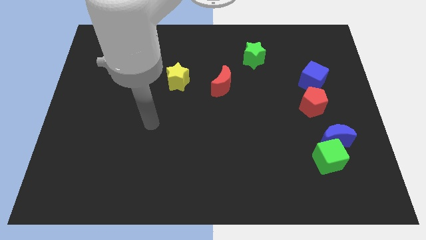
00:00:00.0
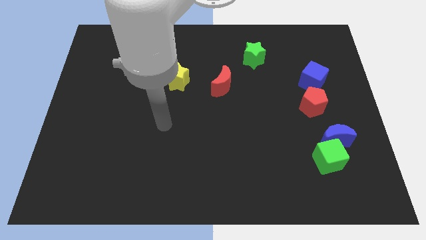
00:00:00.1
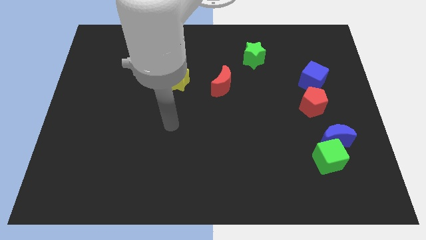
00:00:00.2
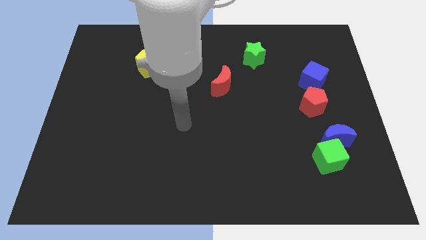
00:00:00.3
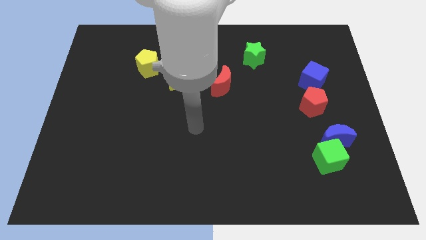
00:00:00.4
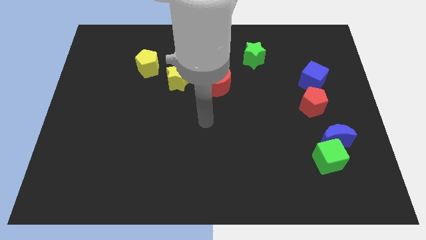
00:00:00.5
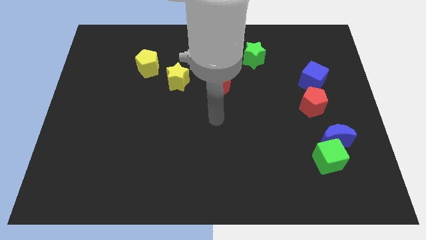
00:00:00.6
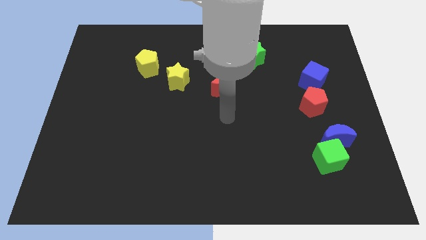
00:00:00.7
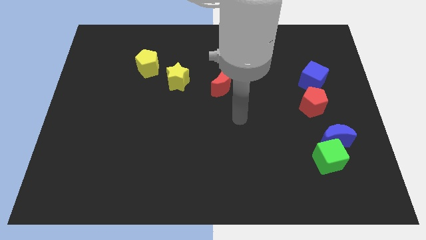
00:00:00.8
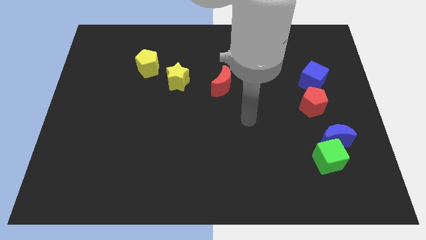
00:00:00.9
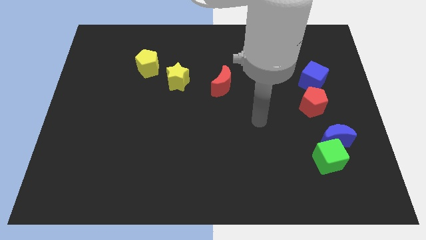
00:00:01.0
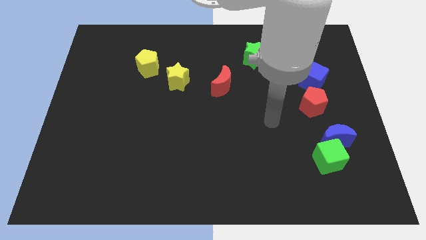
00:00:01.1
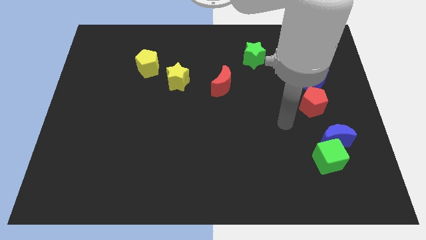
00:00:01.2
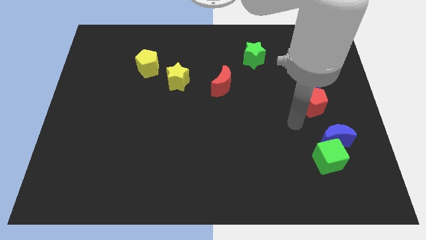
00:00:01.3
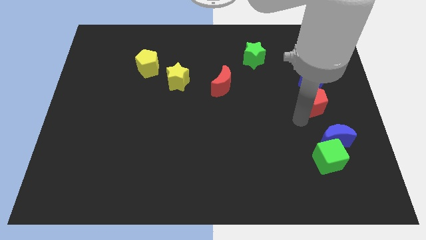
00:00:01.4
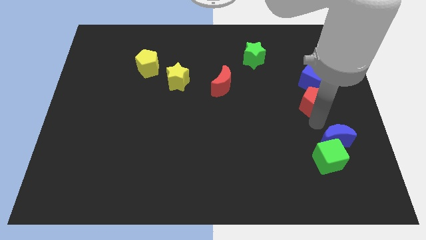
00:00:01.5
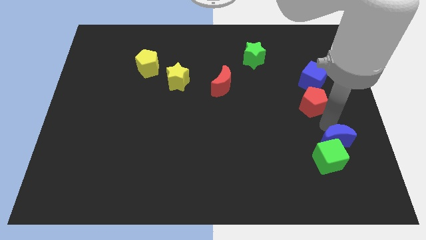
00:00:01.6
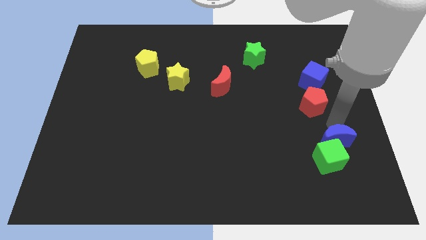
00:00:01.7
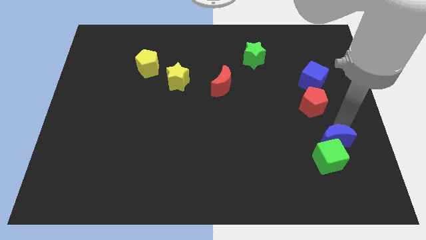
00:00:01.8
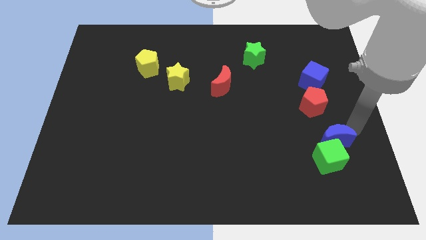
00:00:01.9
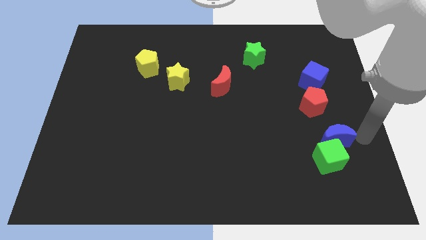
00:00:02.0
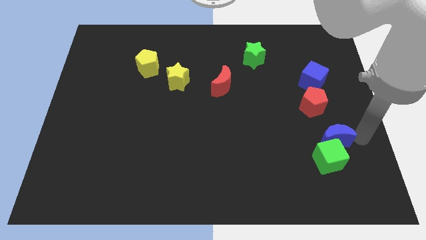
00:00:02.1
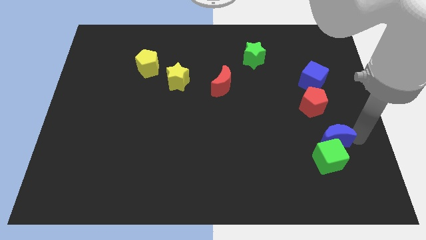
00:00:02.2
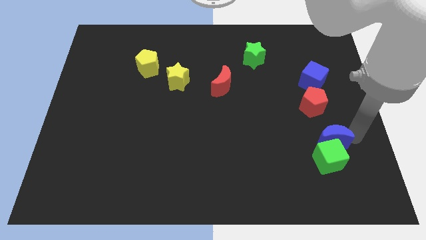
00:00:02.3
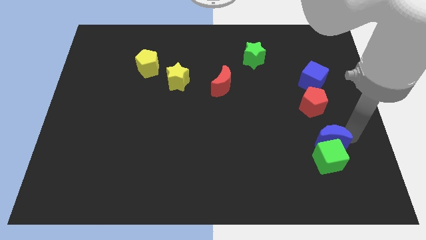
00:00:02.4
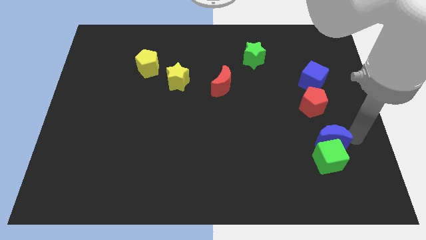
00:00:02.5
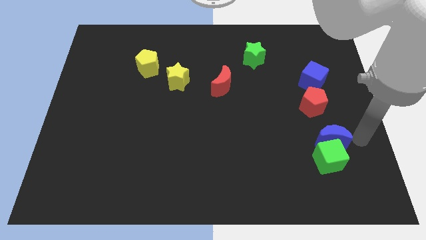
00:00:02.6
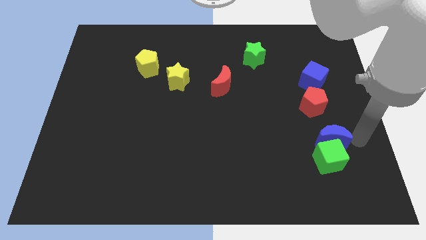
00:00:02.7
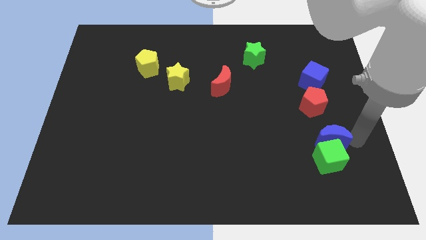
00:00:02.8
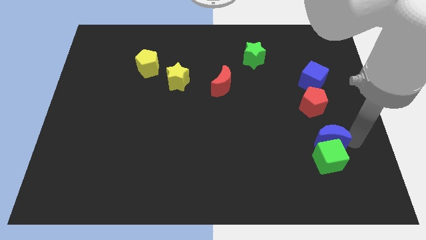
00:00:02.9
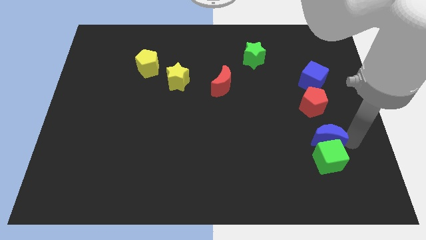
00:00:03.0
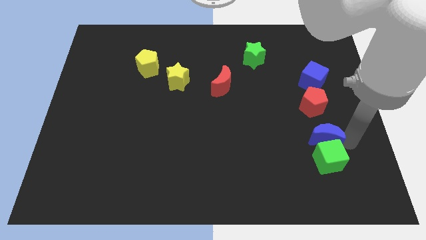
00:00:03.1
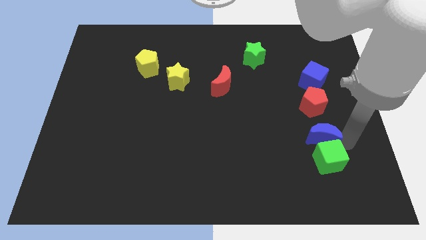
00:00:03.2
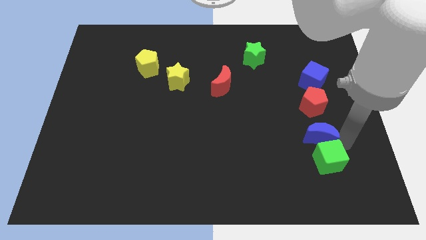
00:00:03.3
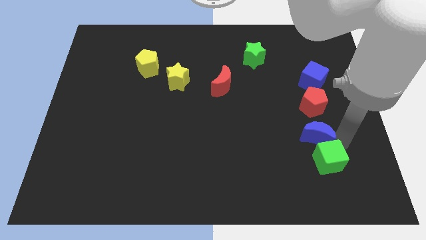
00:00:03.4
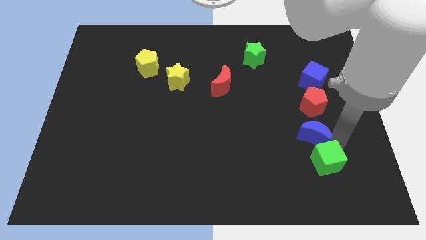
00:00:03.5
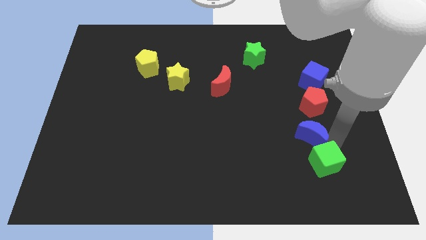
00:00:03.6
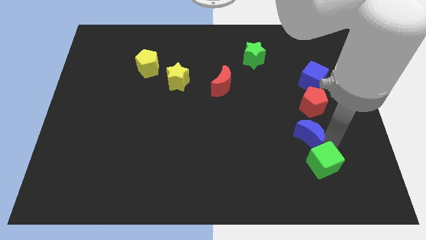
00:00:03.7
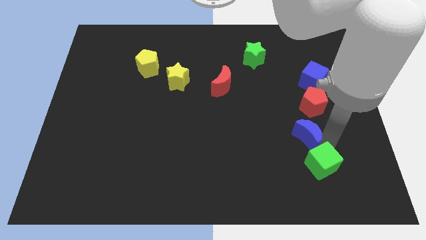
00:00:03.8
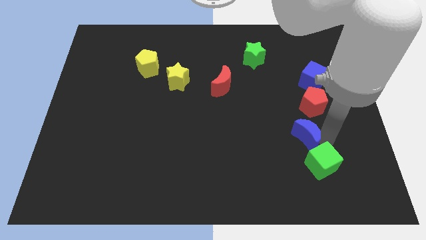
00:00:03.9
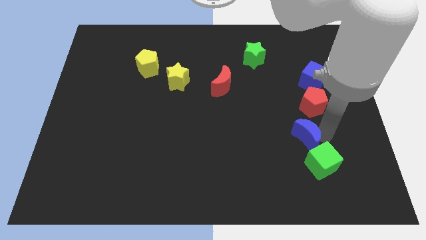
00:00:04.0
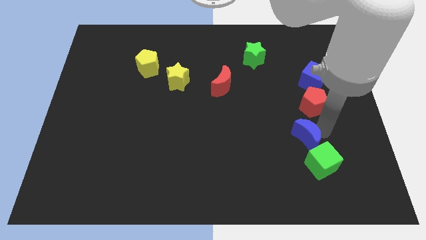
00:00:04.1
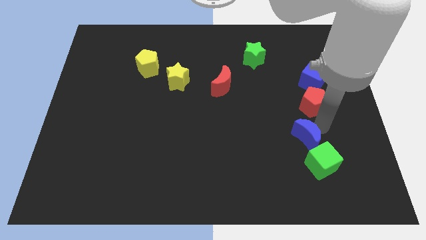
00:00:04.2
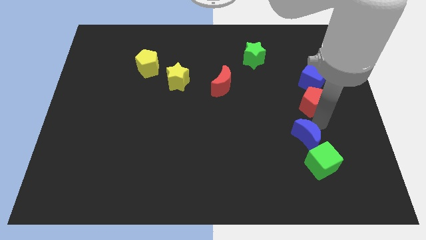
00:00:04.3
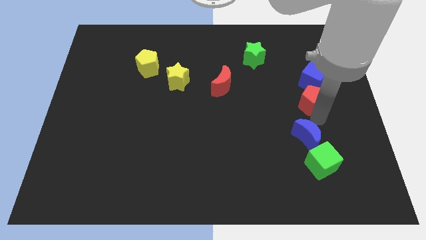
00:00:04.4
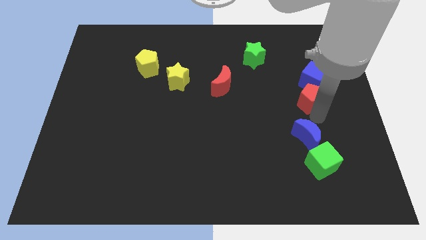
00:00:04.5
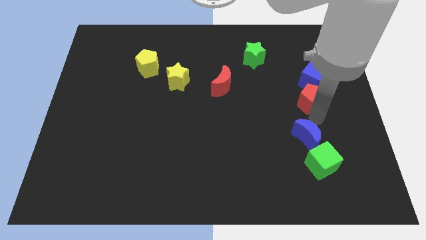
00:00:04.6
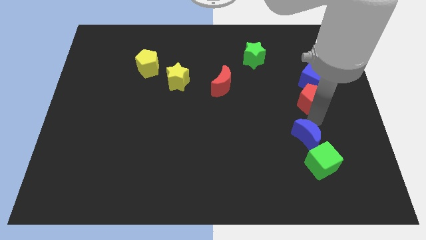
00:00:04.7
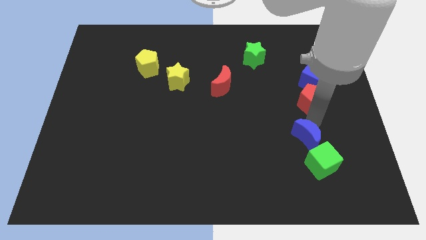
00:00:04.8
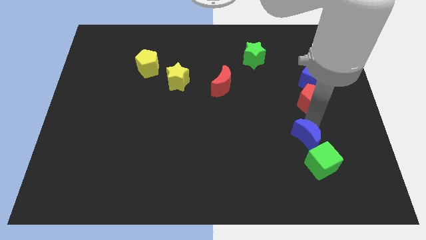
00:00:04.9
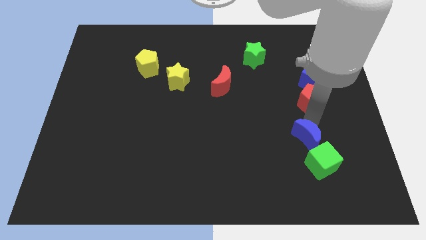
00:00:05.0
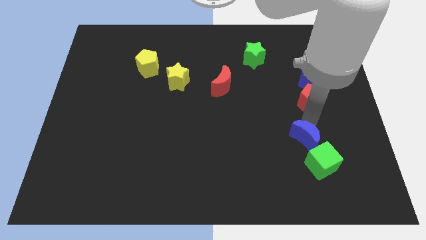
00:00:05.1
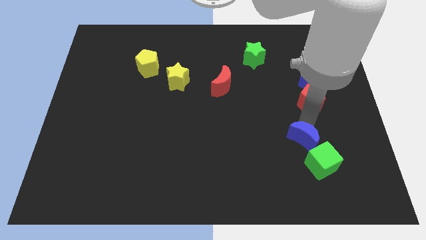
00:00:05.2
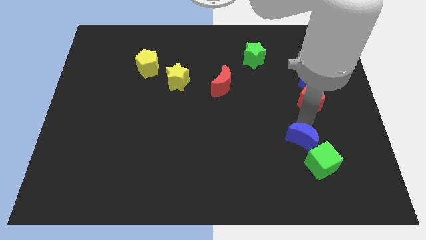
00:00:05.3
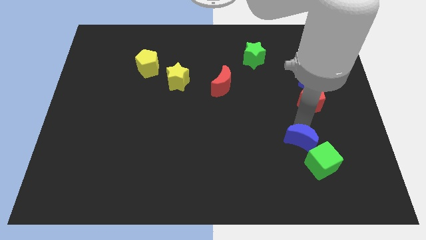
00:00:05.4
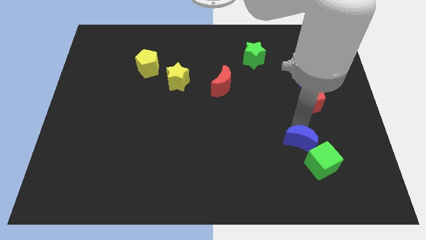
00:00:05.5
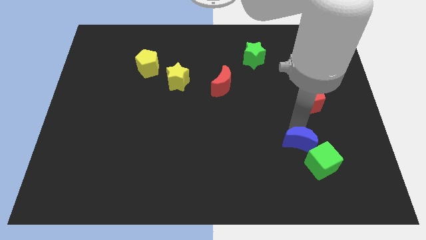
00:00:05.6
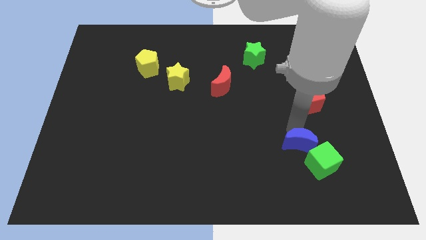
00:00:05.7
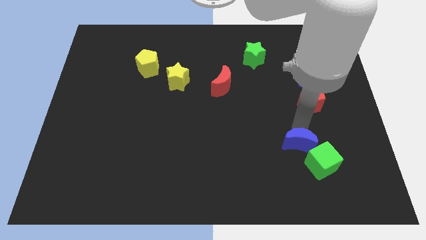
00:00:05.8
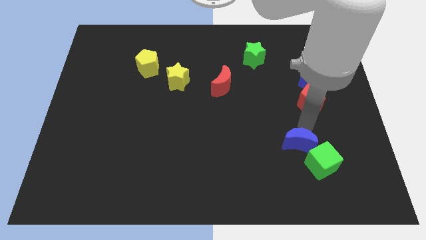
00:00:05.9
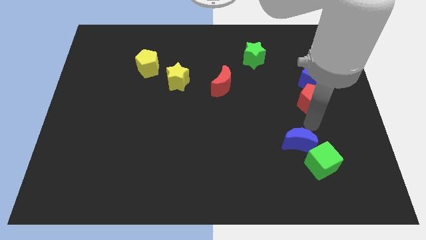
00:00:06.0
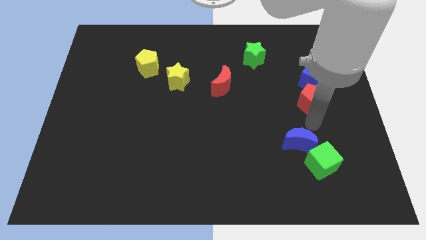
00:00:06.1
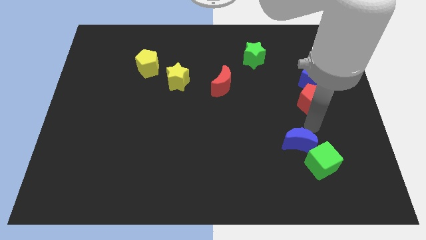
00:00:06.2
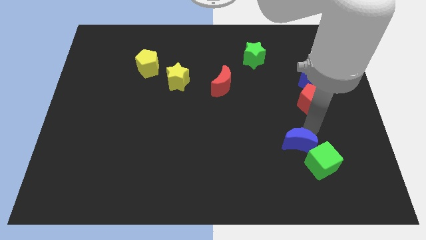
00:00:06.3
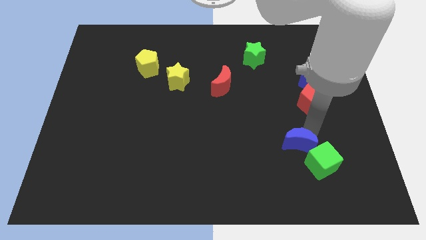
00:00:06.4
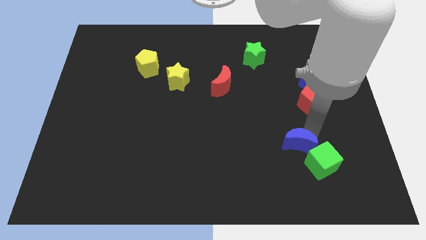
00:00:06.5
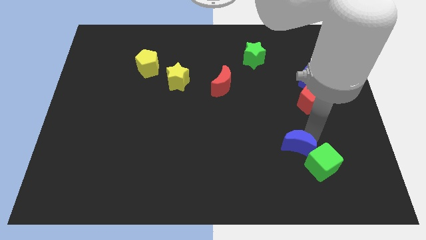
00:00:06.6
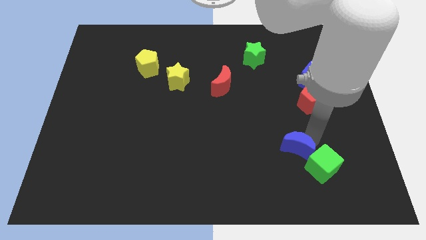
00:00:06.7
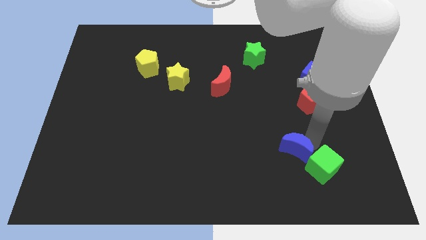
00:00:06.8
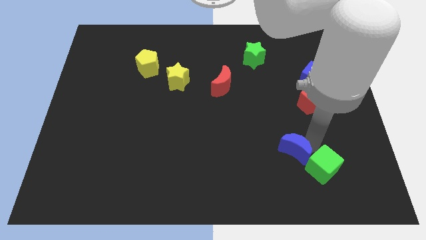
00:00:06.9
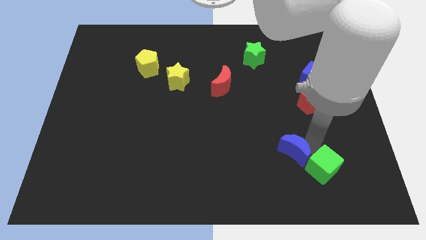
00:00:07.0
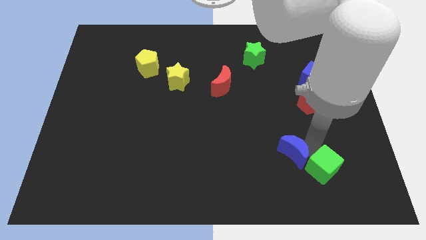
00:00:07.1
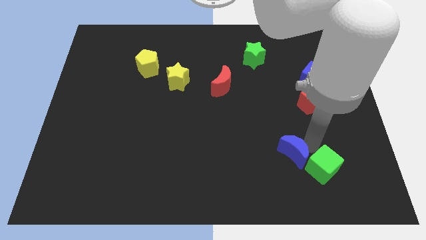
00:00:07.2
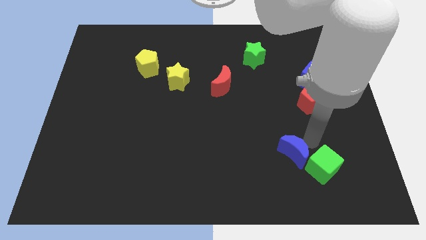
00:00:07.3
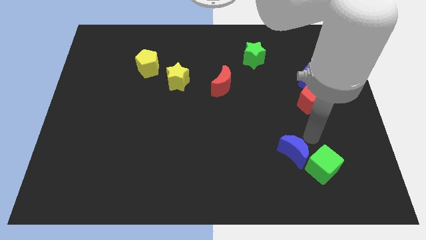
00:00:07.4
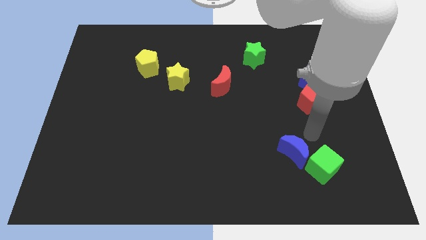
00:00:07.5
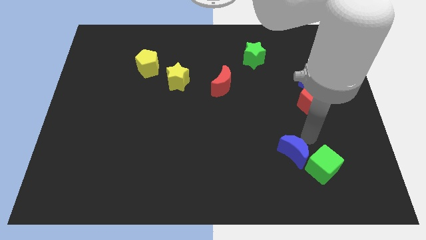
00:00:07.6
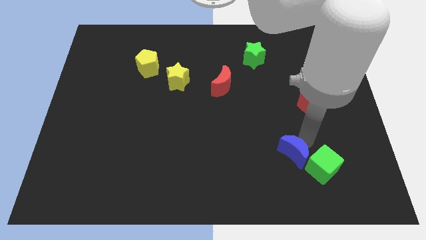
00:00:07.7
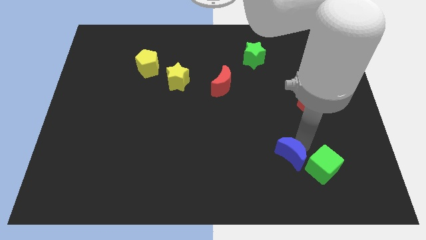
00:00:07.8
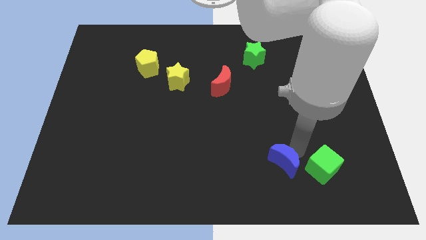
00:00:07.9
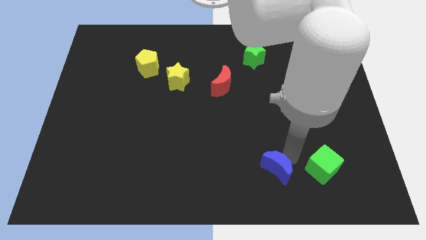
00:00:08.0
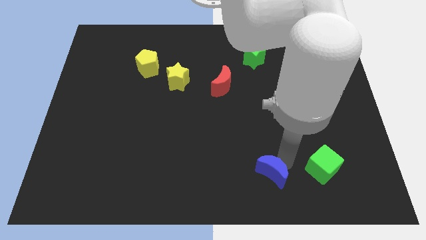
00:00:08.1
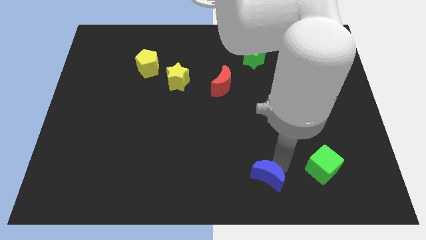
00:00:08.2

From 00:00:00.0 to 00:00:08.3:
put the blue moon to the bottom side
